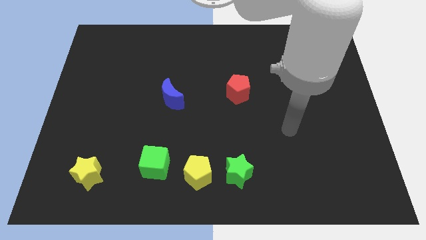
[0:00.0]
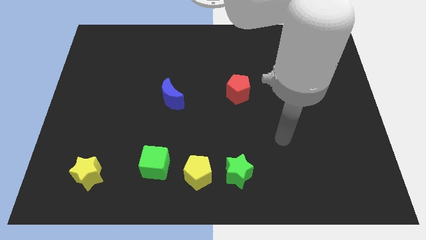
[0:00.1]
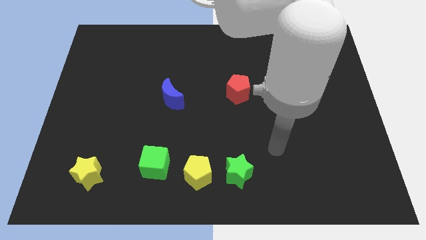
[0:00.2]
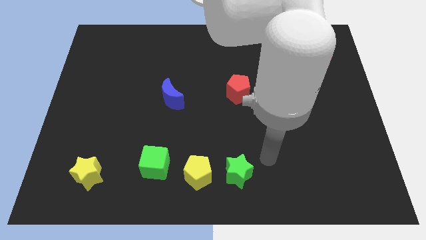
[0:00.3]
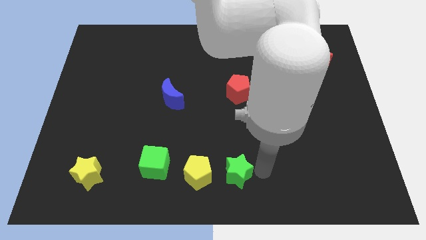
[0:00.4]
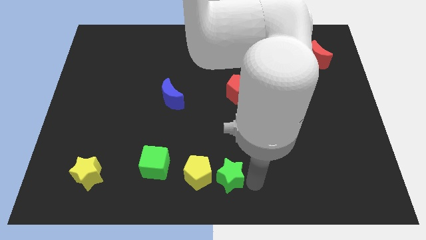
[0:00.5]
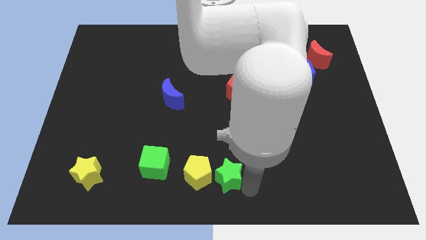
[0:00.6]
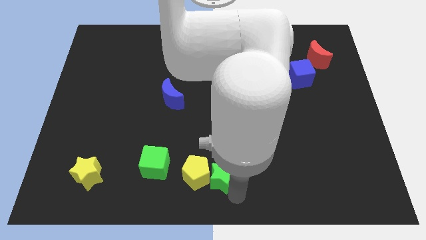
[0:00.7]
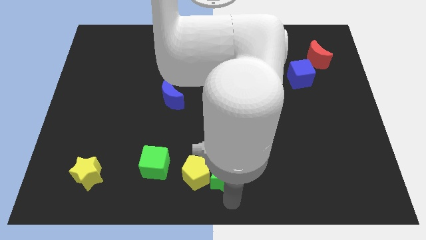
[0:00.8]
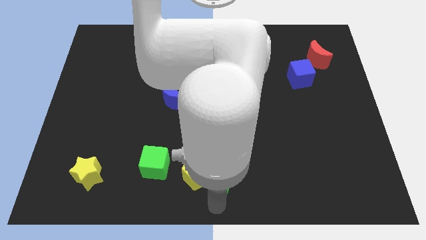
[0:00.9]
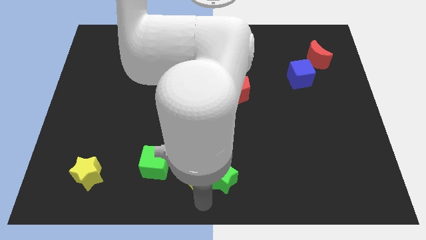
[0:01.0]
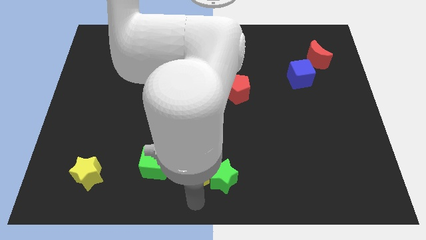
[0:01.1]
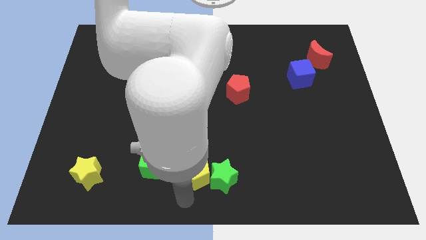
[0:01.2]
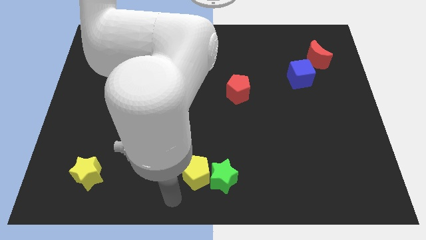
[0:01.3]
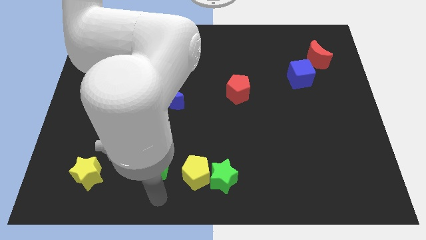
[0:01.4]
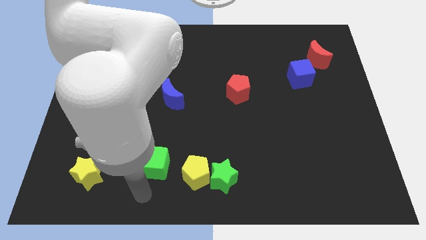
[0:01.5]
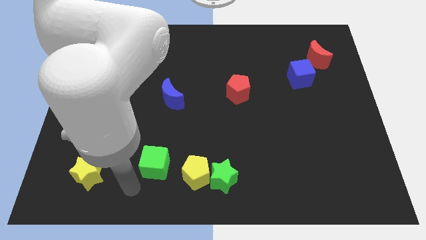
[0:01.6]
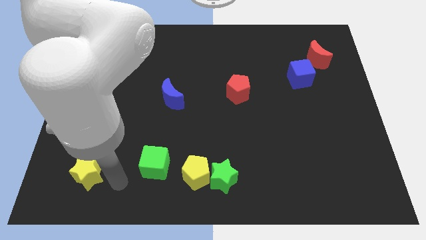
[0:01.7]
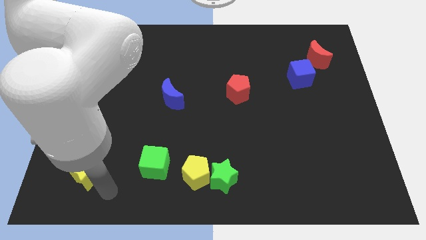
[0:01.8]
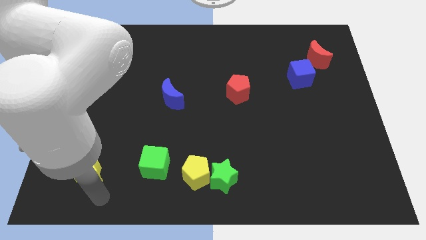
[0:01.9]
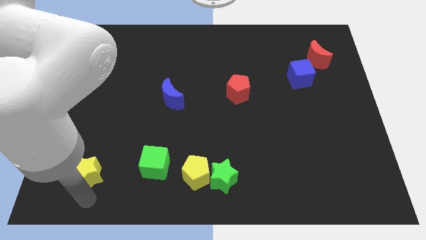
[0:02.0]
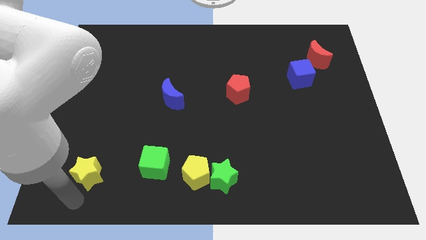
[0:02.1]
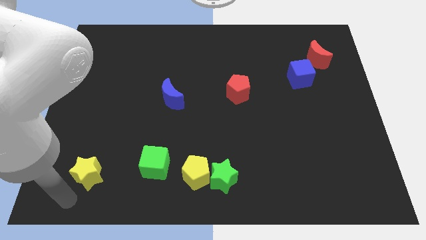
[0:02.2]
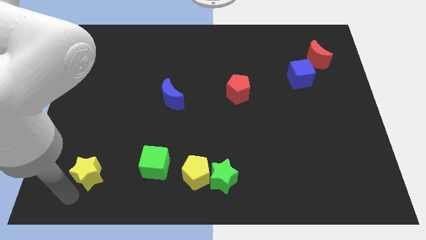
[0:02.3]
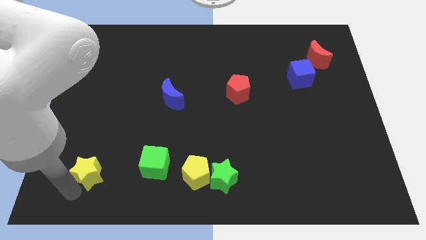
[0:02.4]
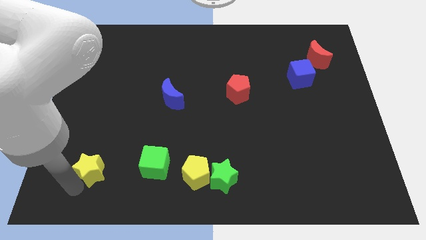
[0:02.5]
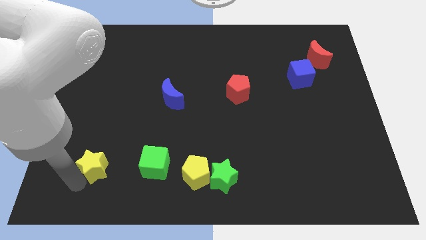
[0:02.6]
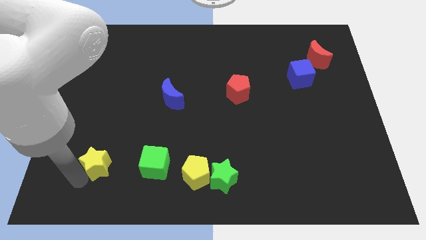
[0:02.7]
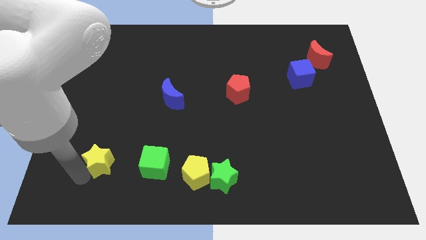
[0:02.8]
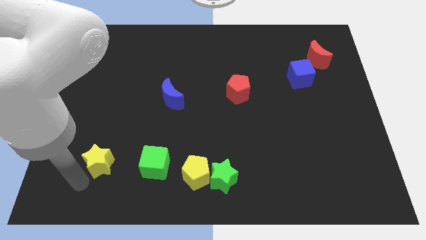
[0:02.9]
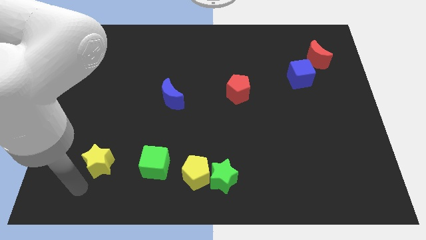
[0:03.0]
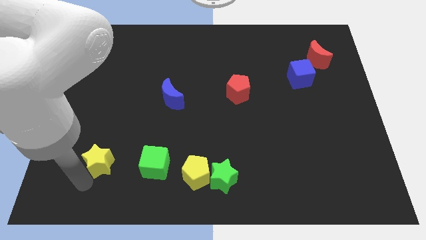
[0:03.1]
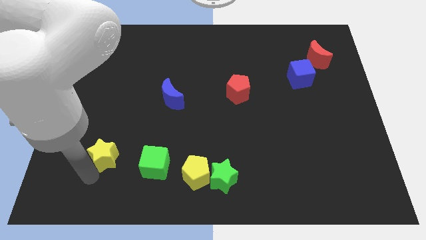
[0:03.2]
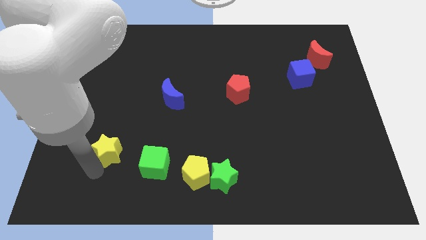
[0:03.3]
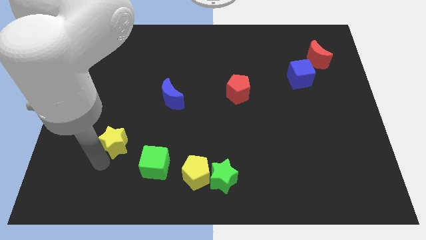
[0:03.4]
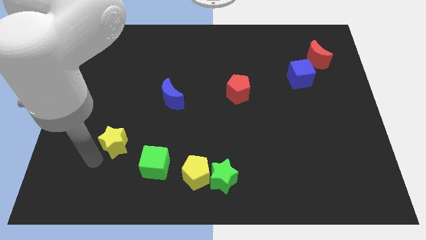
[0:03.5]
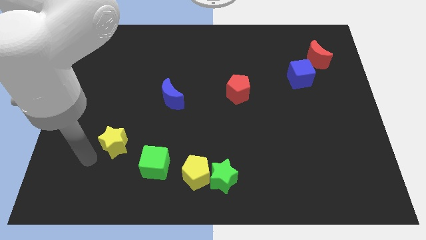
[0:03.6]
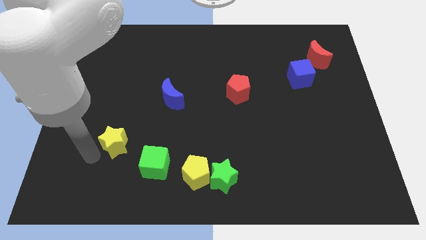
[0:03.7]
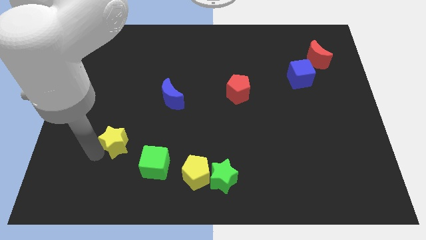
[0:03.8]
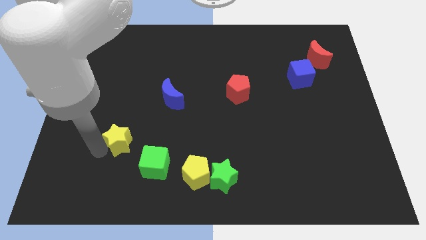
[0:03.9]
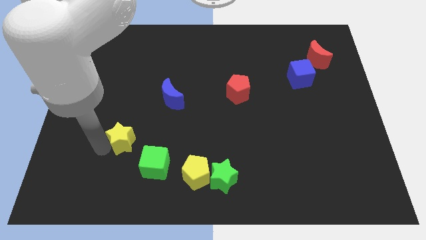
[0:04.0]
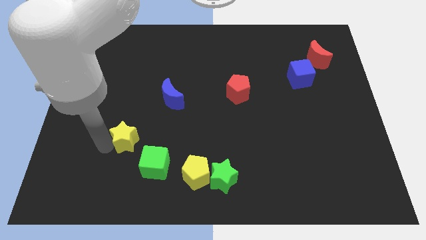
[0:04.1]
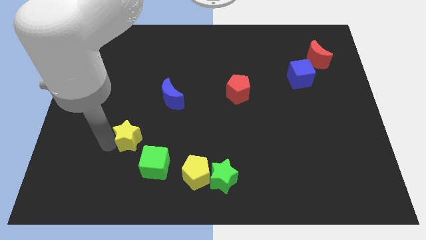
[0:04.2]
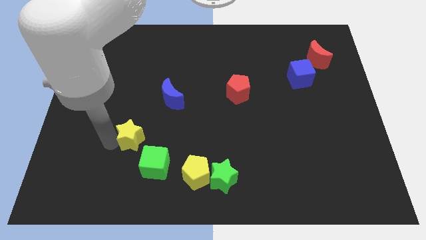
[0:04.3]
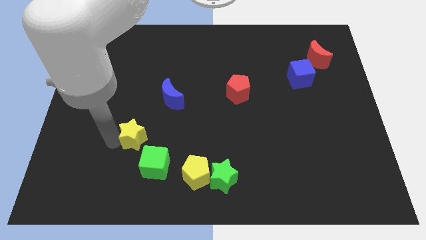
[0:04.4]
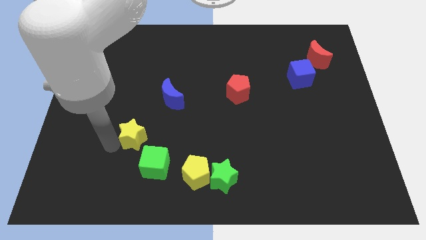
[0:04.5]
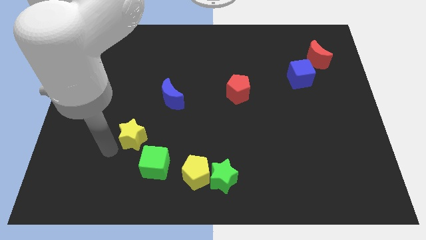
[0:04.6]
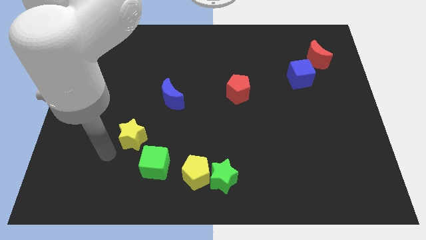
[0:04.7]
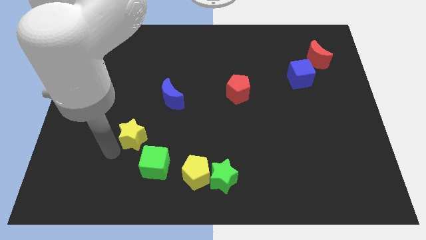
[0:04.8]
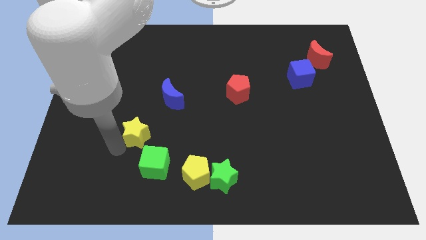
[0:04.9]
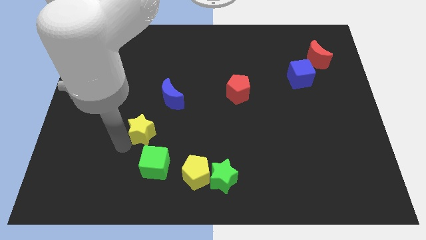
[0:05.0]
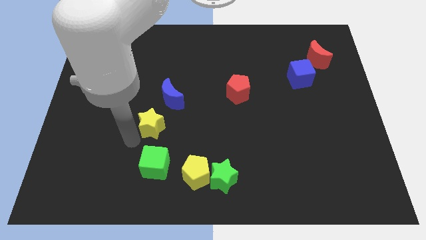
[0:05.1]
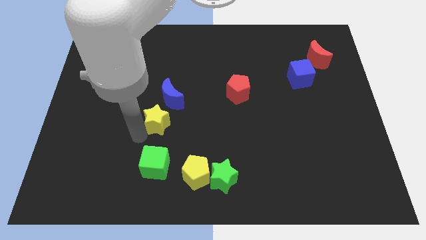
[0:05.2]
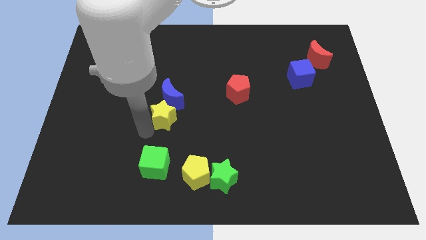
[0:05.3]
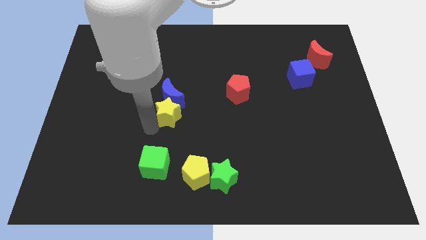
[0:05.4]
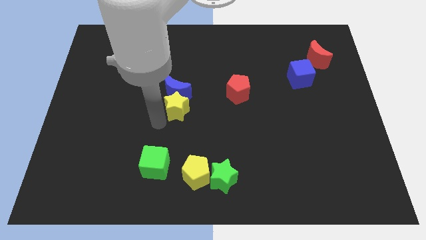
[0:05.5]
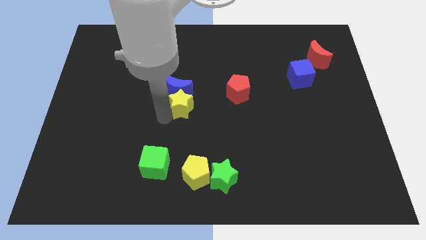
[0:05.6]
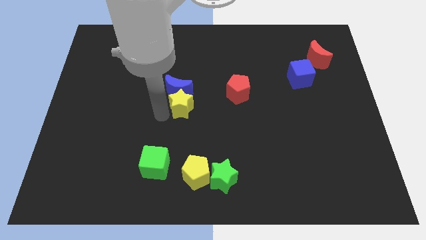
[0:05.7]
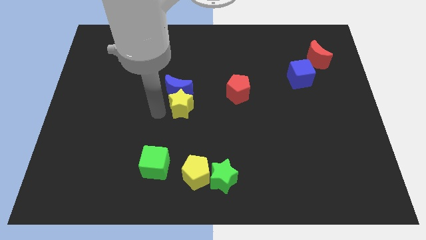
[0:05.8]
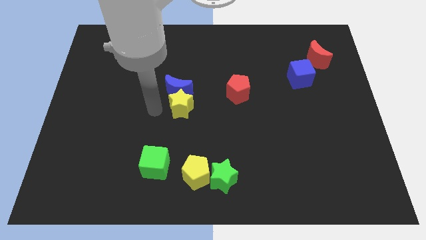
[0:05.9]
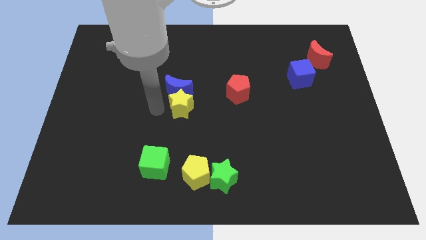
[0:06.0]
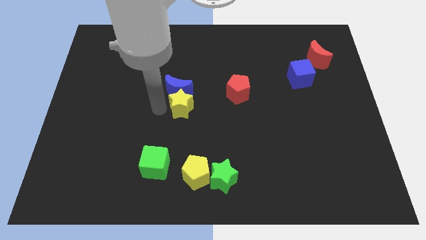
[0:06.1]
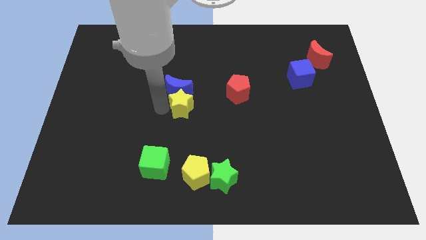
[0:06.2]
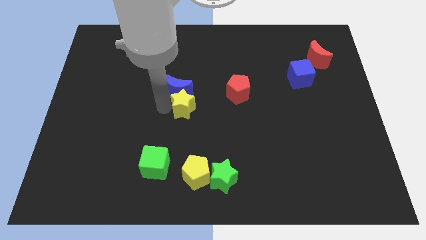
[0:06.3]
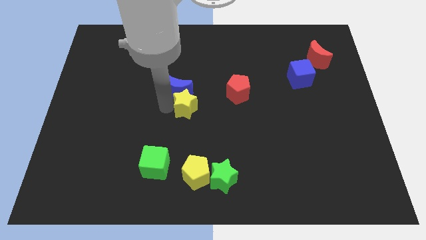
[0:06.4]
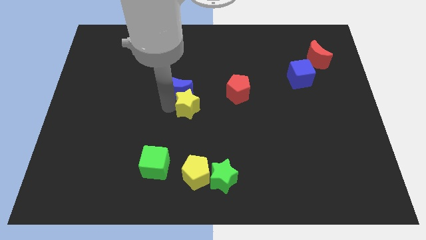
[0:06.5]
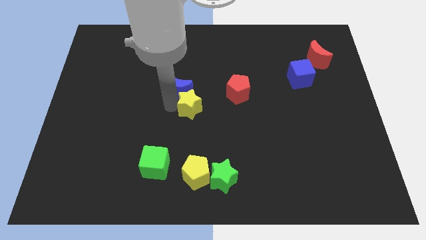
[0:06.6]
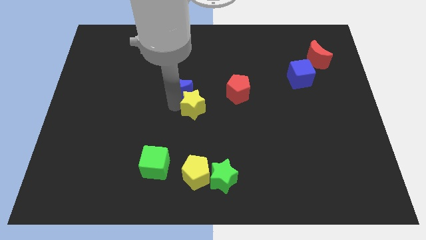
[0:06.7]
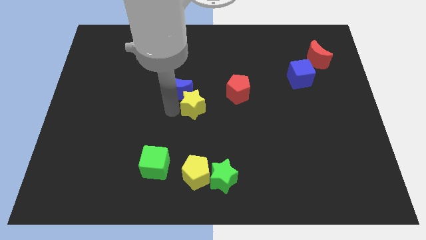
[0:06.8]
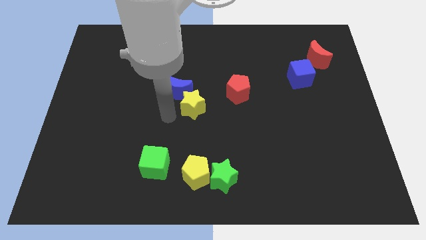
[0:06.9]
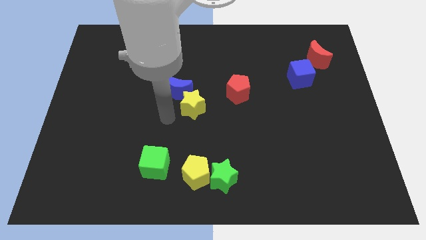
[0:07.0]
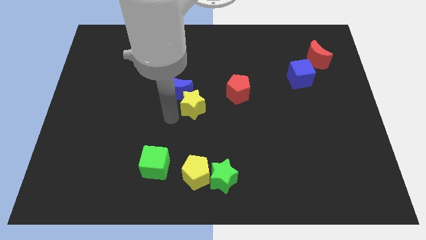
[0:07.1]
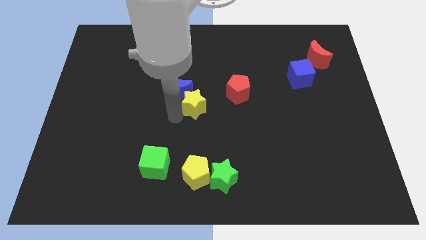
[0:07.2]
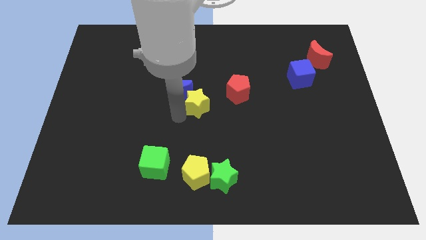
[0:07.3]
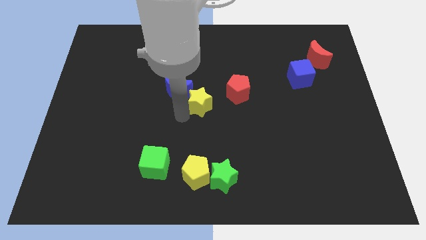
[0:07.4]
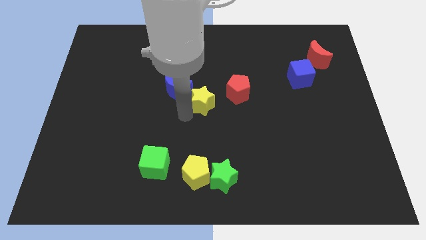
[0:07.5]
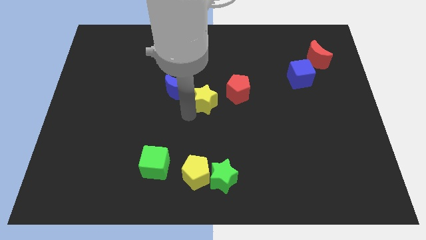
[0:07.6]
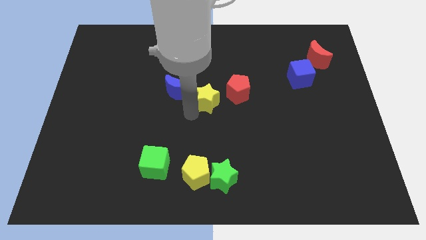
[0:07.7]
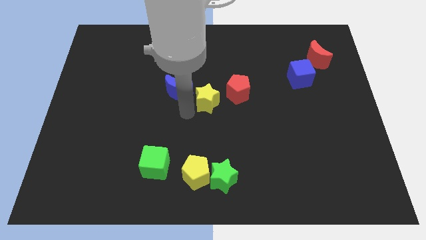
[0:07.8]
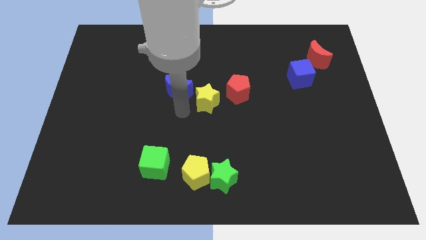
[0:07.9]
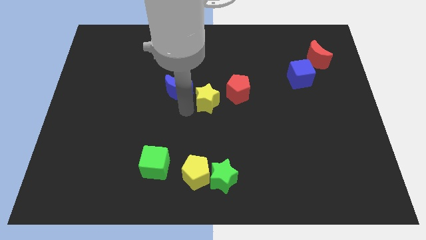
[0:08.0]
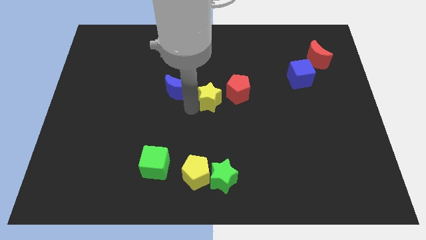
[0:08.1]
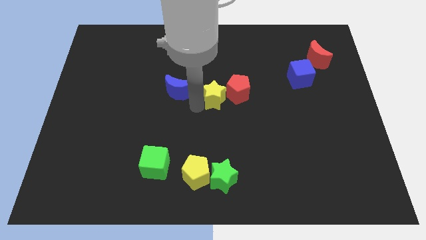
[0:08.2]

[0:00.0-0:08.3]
move the yellow star close to the red pentagon
